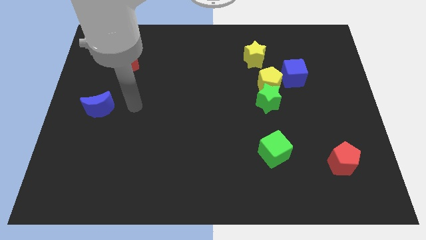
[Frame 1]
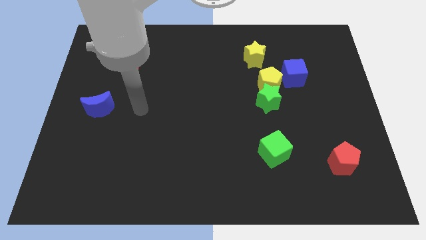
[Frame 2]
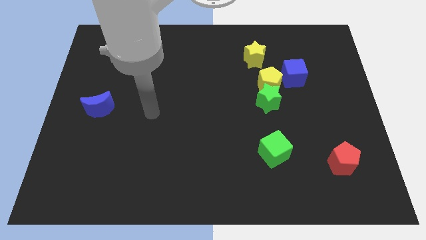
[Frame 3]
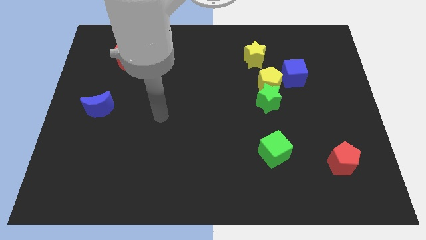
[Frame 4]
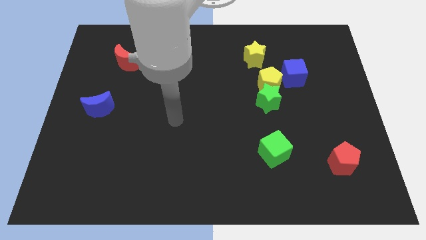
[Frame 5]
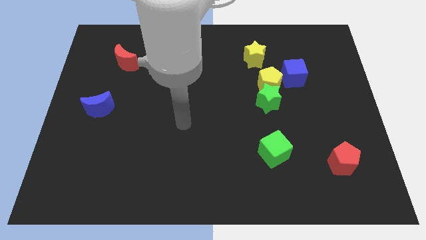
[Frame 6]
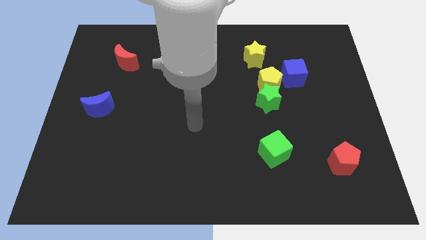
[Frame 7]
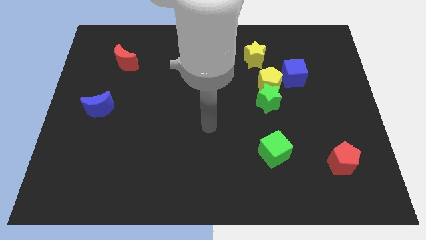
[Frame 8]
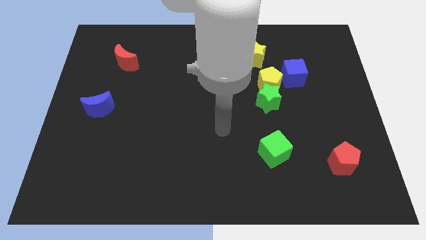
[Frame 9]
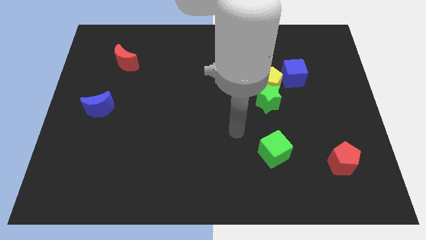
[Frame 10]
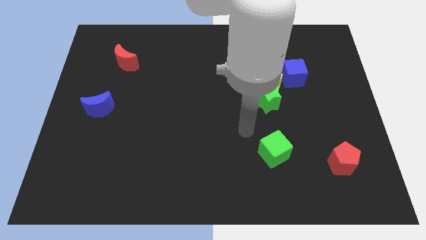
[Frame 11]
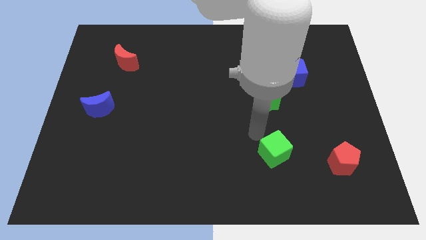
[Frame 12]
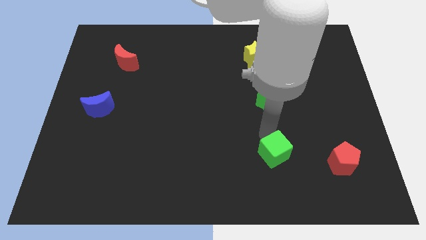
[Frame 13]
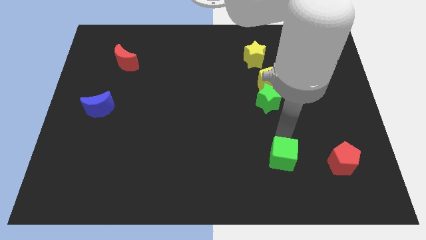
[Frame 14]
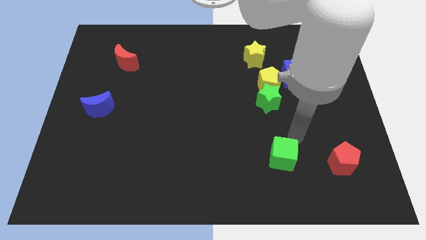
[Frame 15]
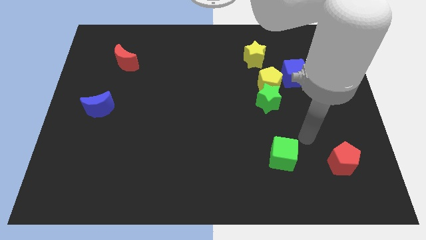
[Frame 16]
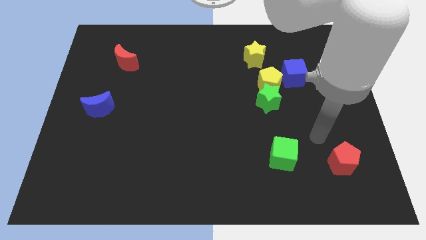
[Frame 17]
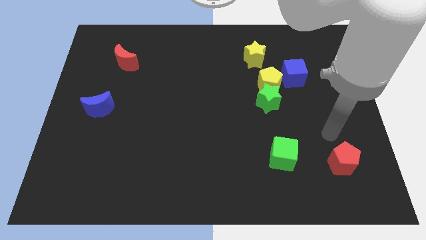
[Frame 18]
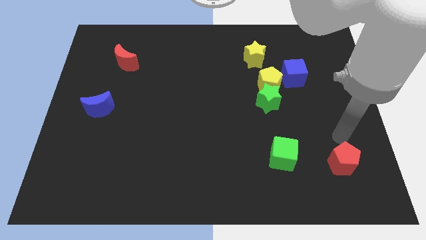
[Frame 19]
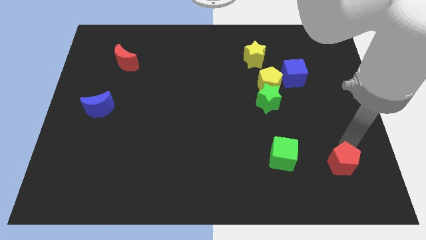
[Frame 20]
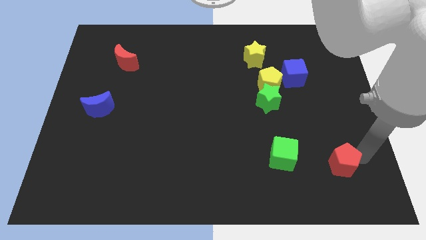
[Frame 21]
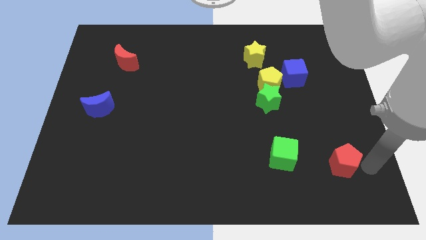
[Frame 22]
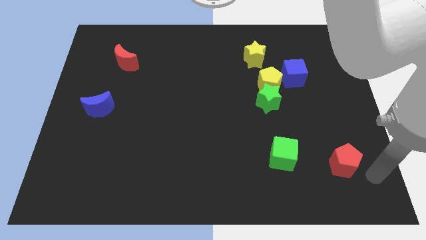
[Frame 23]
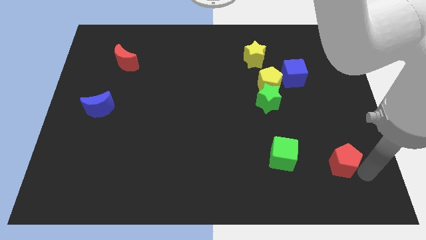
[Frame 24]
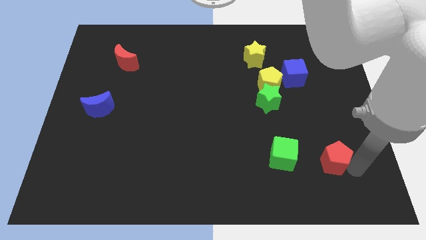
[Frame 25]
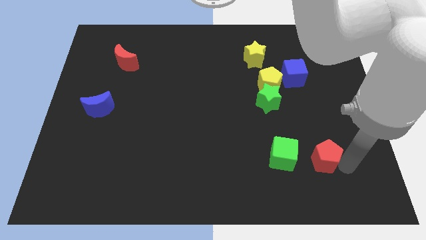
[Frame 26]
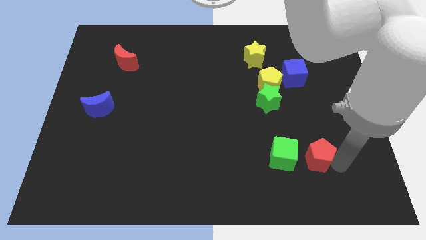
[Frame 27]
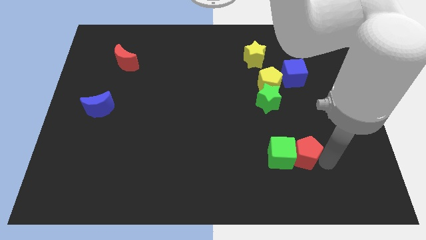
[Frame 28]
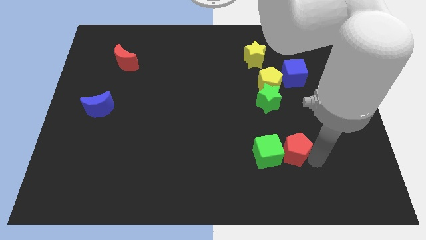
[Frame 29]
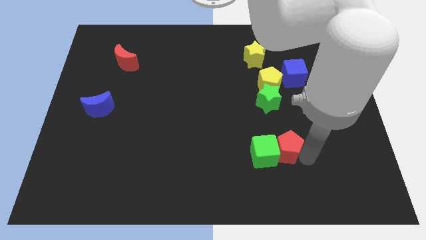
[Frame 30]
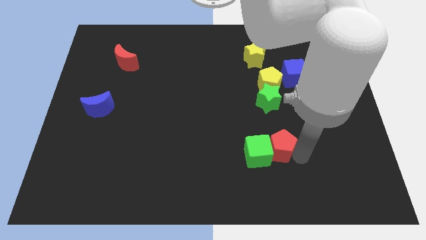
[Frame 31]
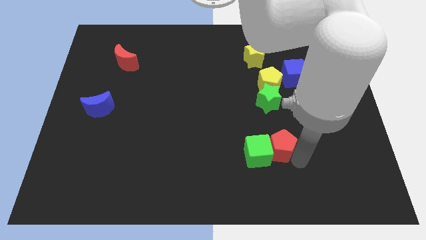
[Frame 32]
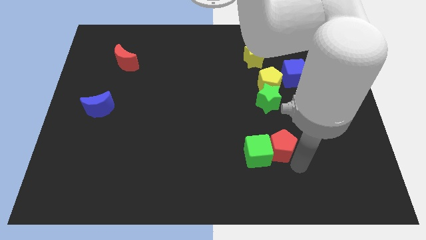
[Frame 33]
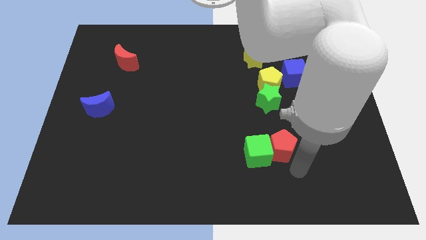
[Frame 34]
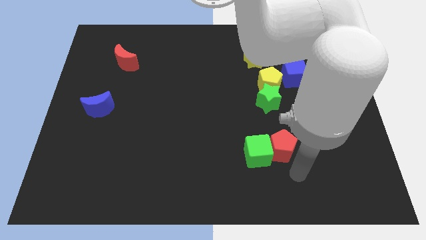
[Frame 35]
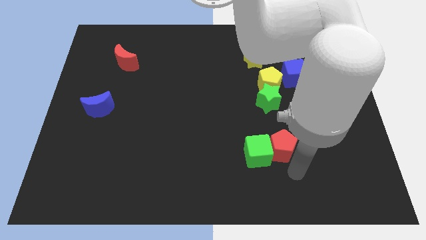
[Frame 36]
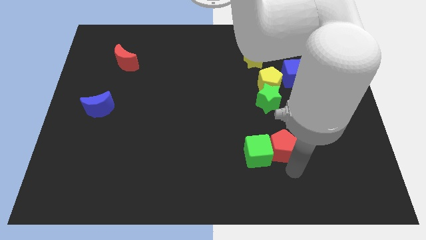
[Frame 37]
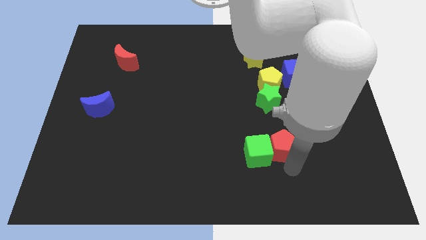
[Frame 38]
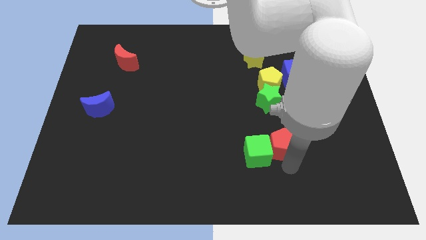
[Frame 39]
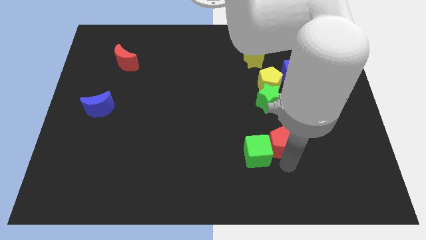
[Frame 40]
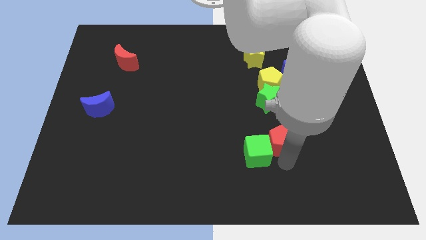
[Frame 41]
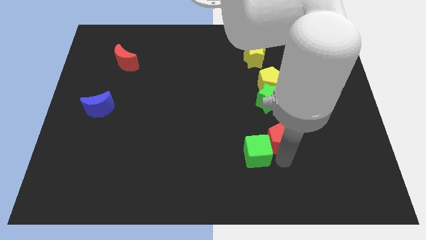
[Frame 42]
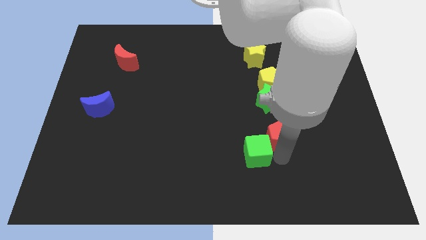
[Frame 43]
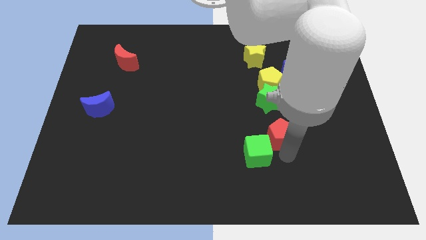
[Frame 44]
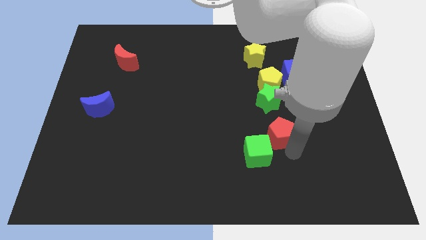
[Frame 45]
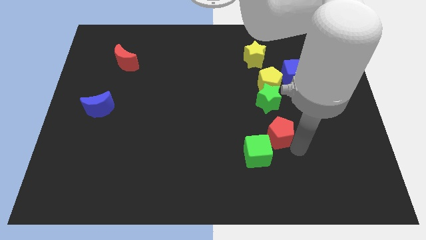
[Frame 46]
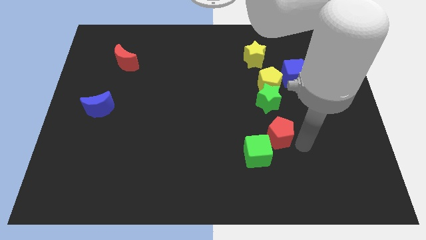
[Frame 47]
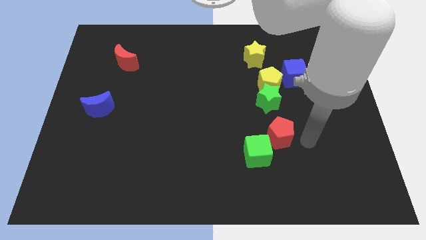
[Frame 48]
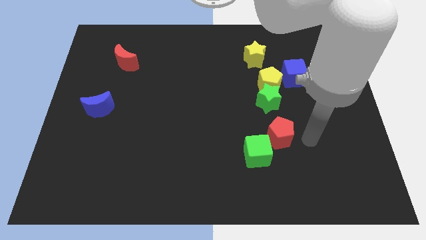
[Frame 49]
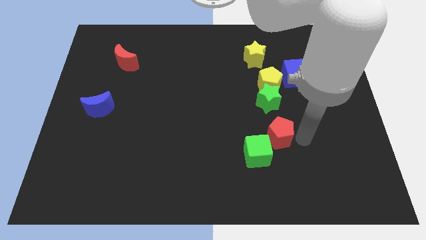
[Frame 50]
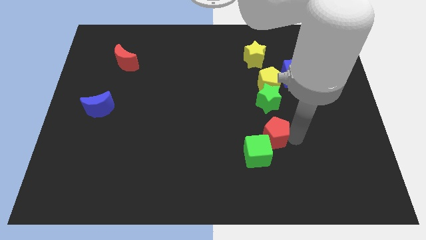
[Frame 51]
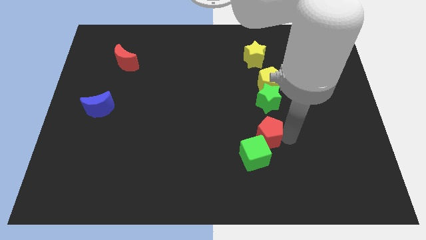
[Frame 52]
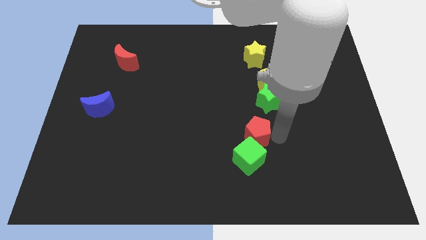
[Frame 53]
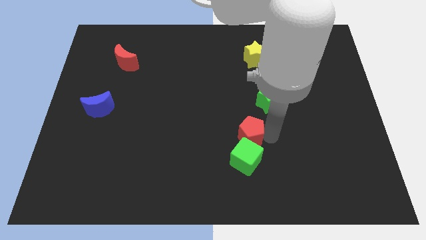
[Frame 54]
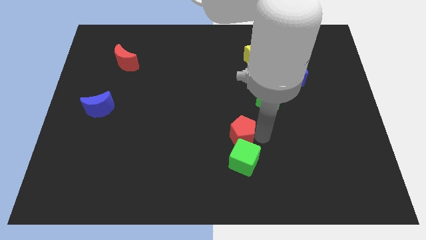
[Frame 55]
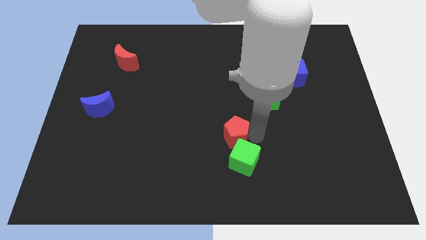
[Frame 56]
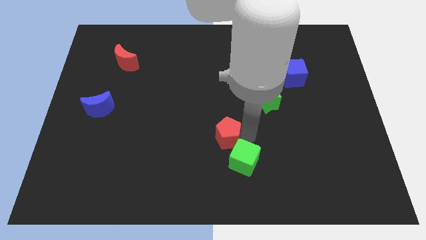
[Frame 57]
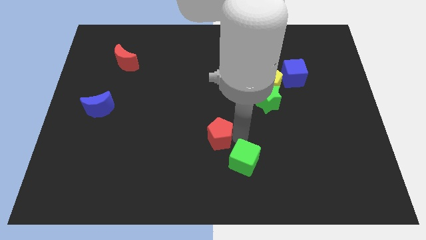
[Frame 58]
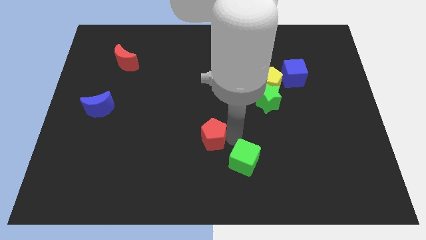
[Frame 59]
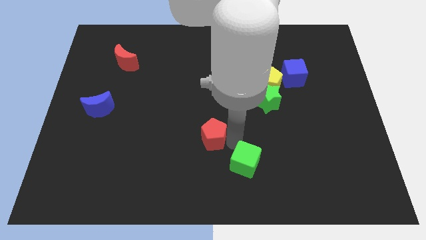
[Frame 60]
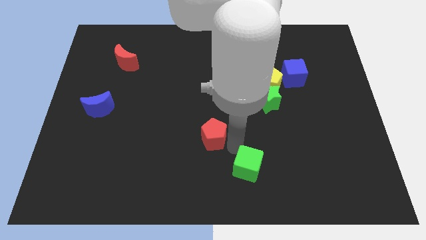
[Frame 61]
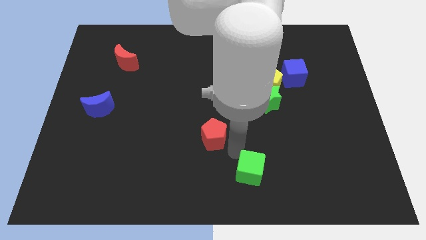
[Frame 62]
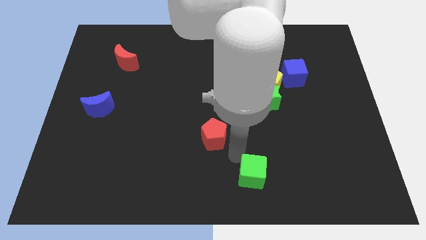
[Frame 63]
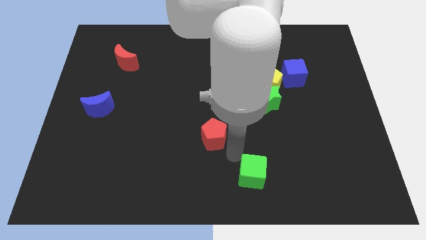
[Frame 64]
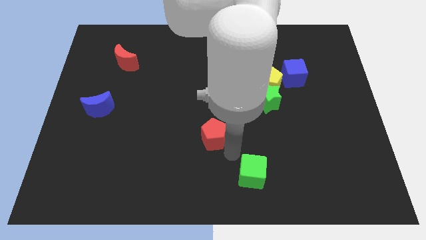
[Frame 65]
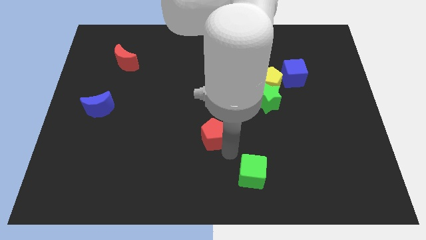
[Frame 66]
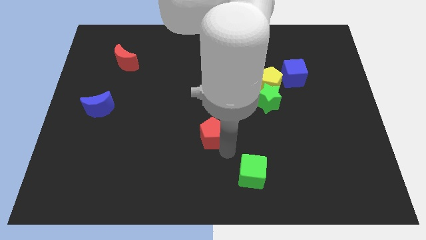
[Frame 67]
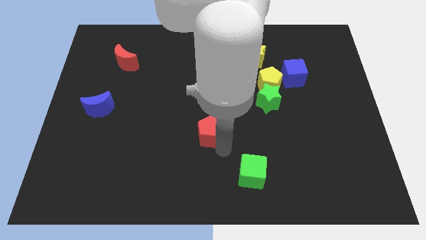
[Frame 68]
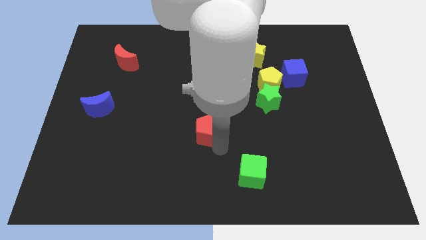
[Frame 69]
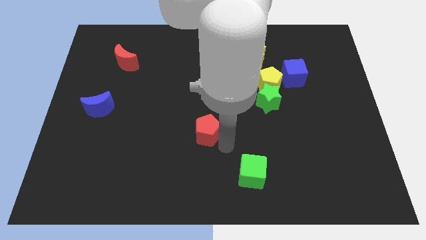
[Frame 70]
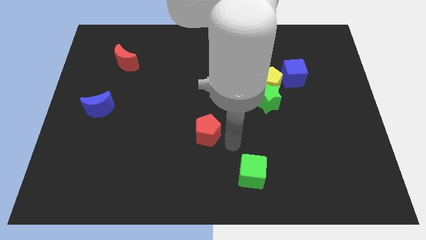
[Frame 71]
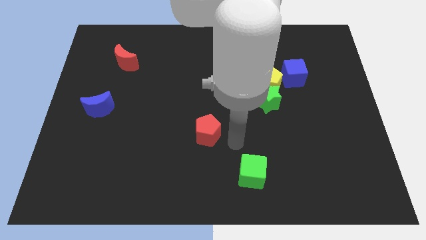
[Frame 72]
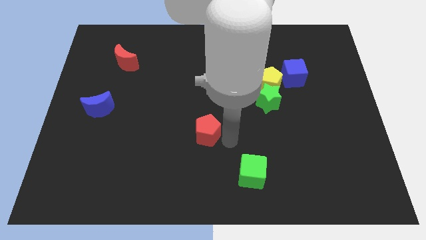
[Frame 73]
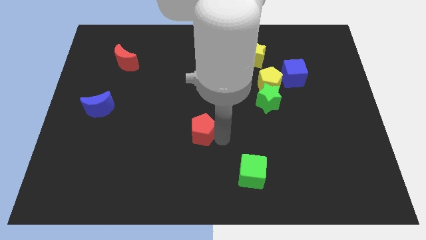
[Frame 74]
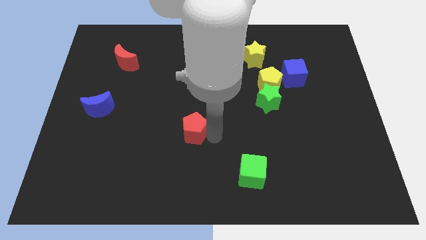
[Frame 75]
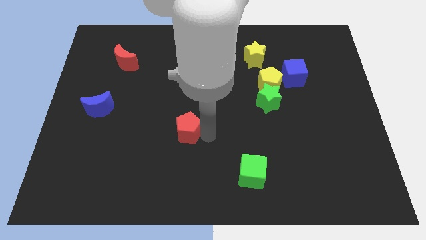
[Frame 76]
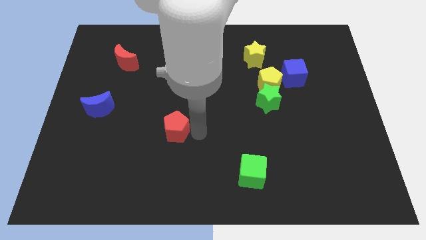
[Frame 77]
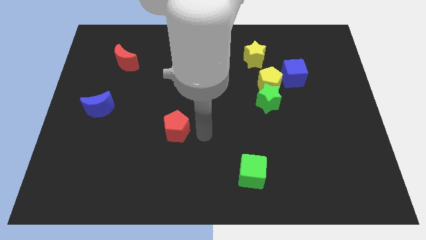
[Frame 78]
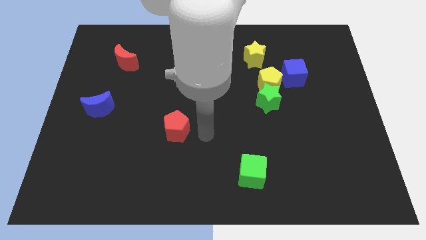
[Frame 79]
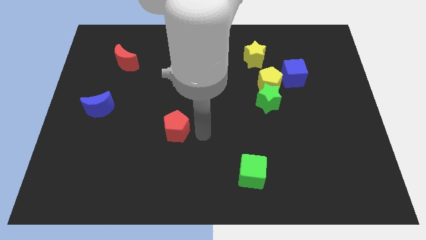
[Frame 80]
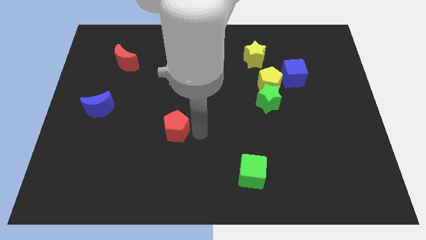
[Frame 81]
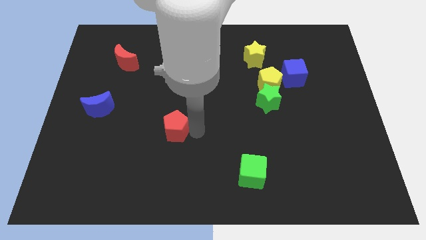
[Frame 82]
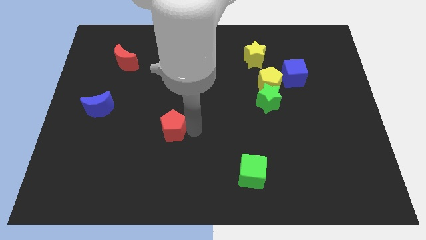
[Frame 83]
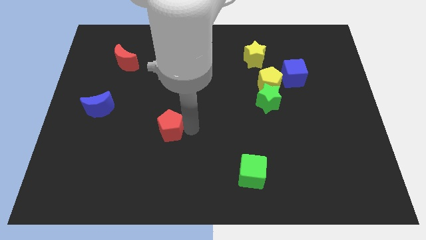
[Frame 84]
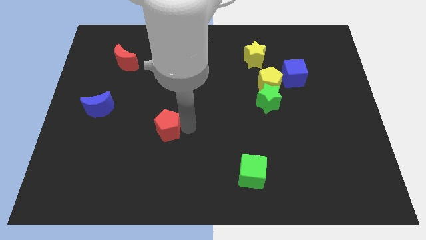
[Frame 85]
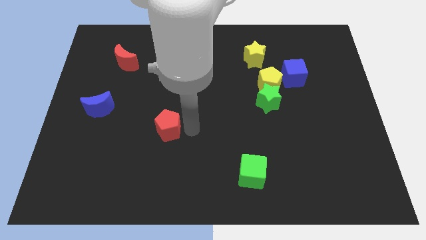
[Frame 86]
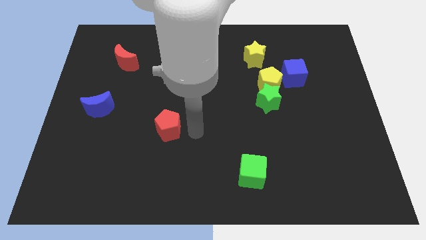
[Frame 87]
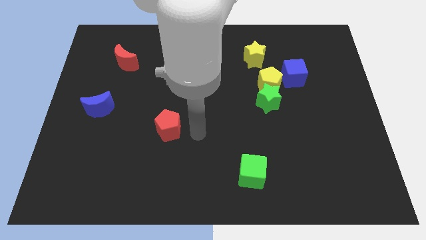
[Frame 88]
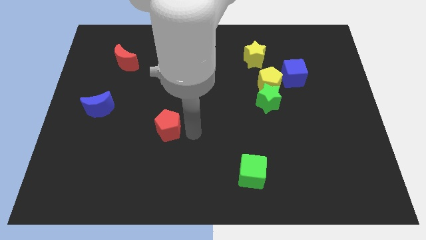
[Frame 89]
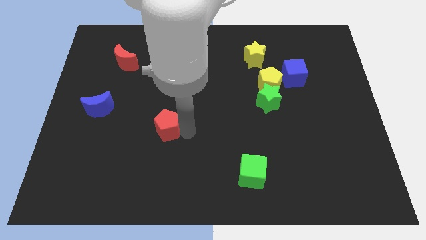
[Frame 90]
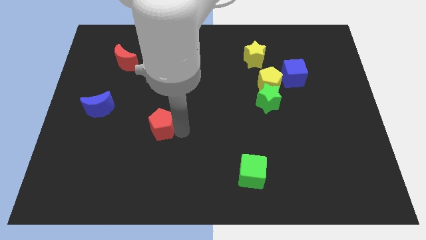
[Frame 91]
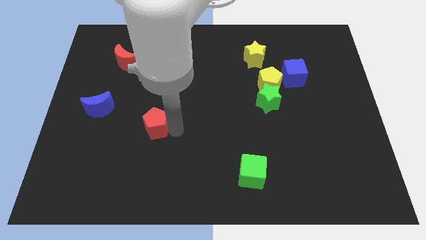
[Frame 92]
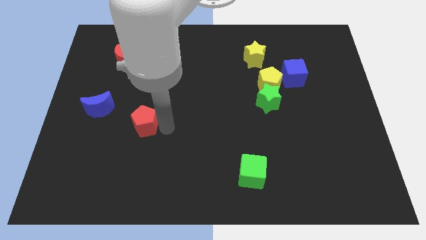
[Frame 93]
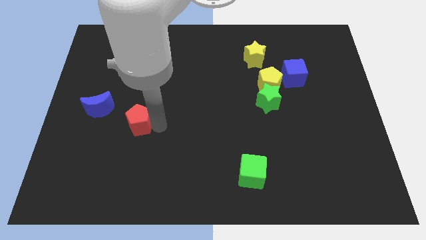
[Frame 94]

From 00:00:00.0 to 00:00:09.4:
slide the red pentagon to the bottom right of the blue moon
